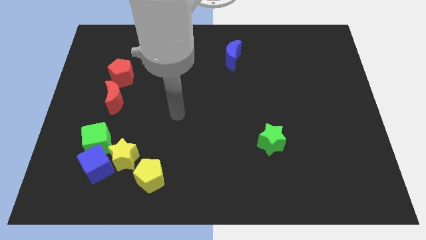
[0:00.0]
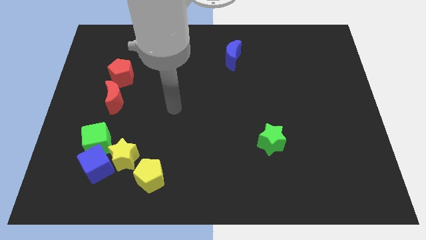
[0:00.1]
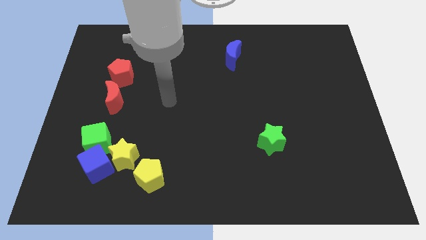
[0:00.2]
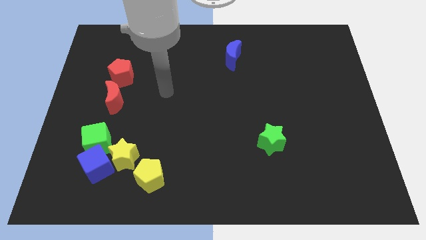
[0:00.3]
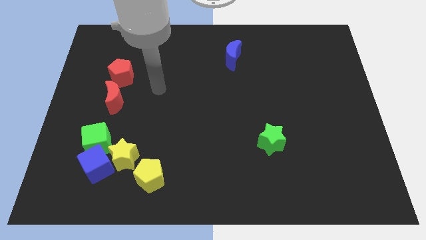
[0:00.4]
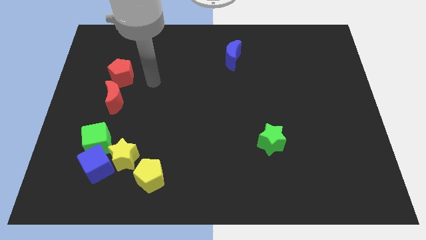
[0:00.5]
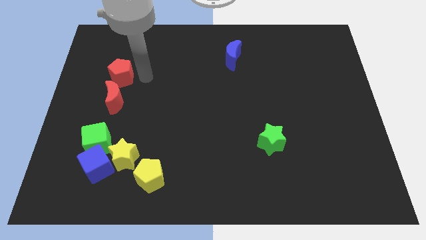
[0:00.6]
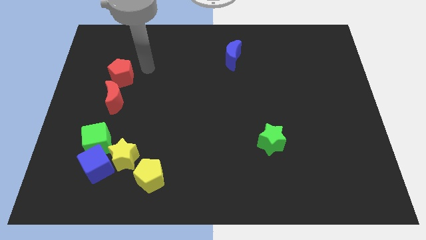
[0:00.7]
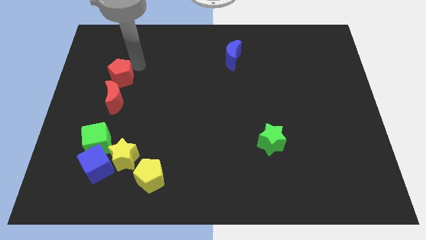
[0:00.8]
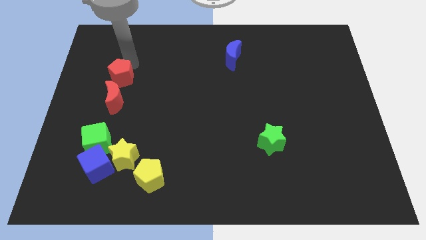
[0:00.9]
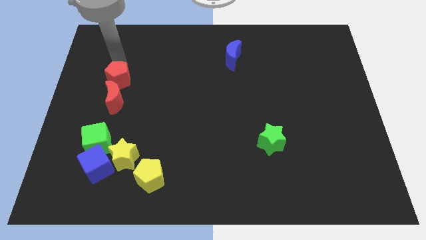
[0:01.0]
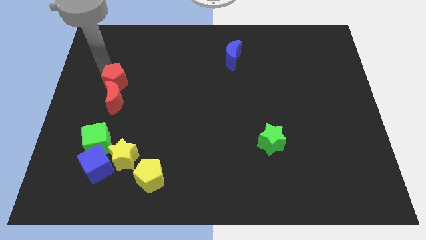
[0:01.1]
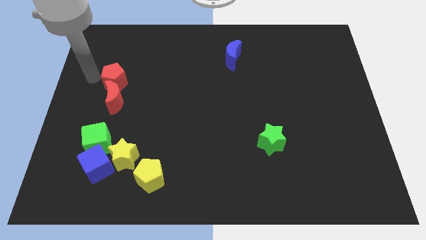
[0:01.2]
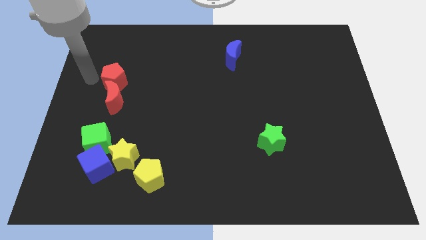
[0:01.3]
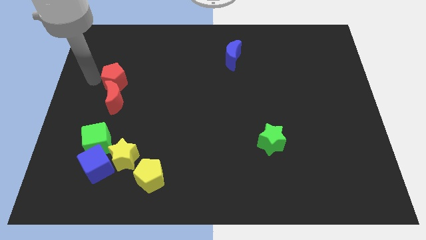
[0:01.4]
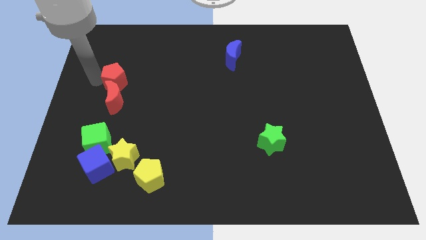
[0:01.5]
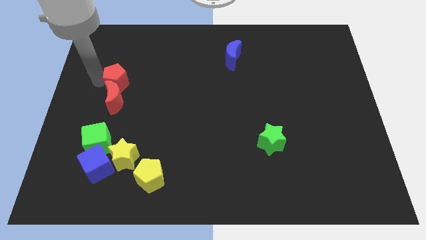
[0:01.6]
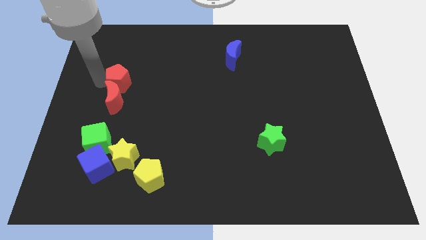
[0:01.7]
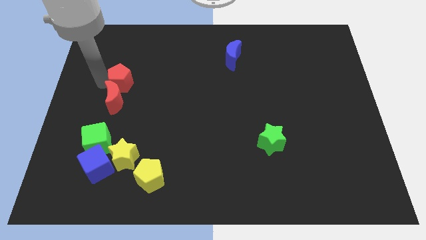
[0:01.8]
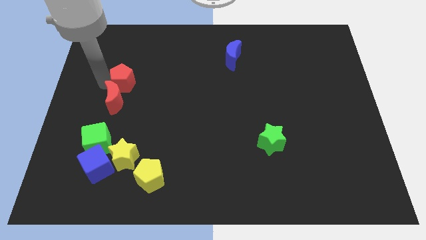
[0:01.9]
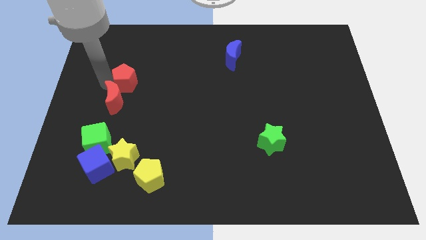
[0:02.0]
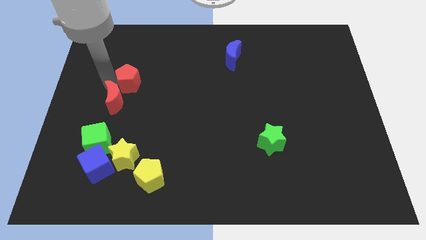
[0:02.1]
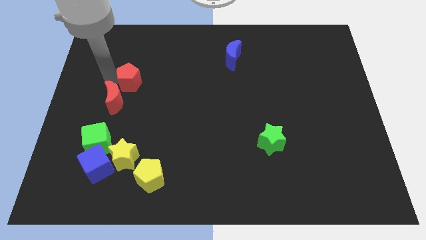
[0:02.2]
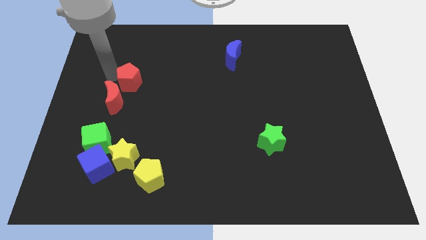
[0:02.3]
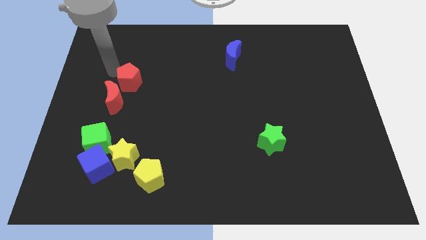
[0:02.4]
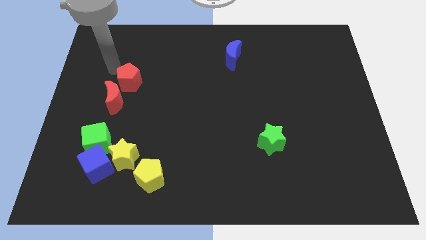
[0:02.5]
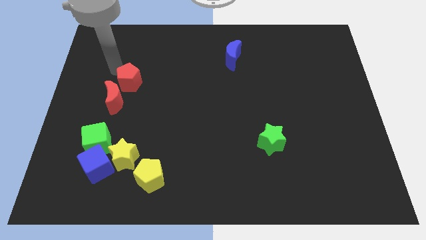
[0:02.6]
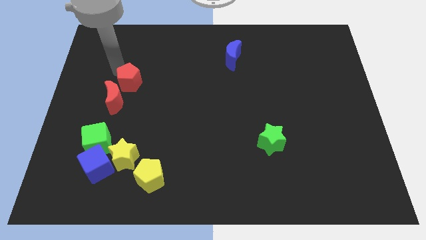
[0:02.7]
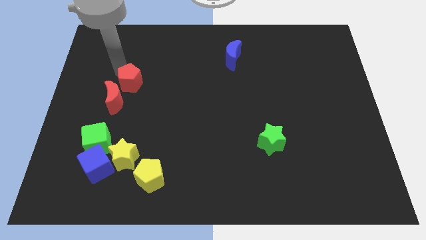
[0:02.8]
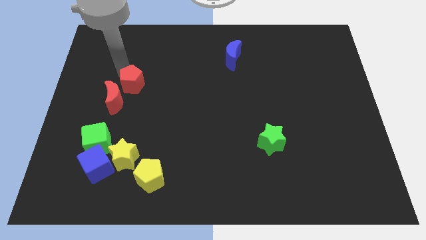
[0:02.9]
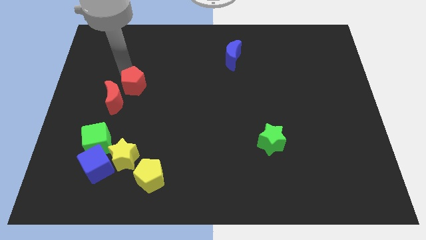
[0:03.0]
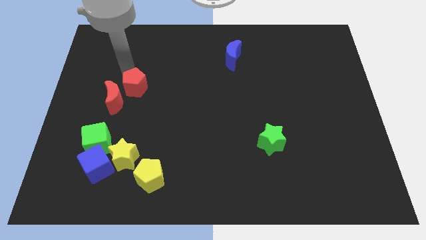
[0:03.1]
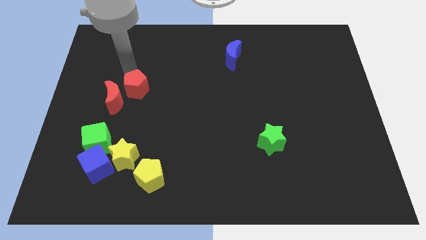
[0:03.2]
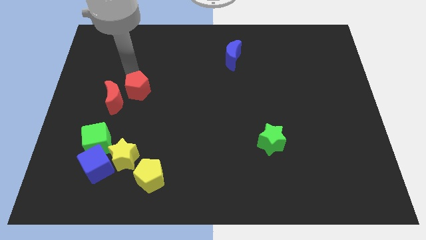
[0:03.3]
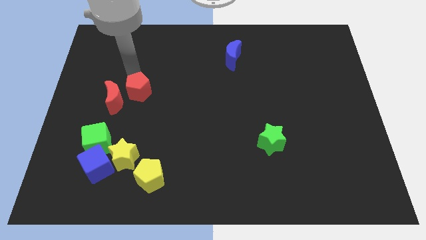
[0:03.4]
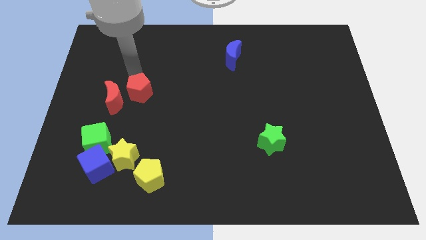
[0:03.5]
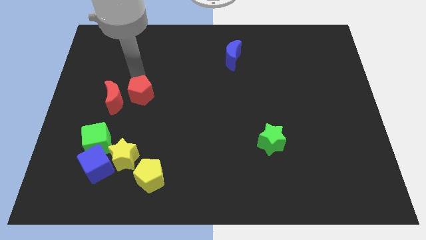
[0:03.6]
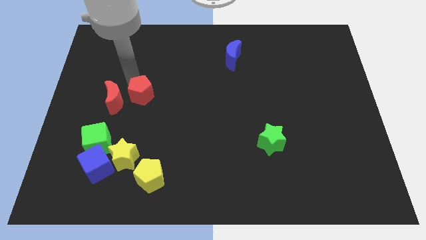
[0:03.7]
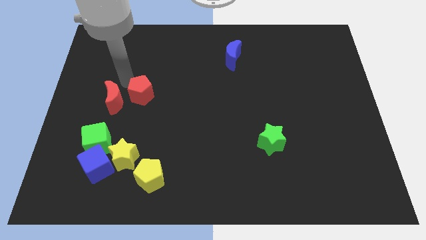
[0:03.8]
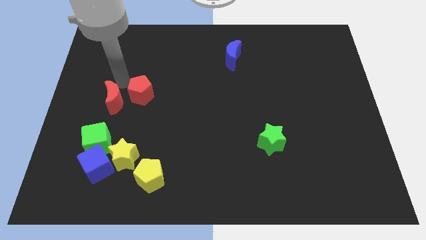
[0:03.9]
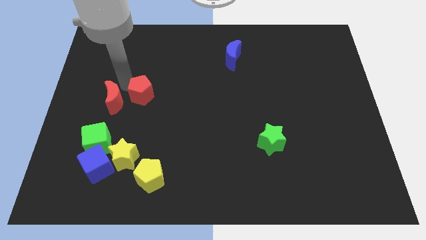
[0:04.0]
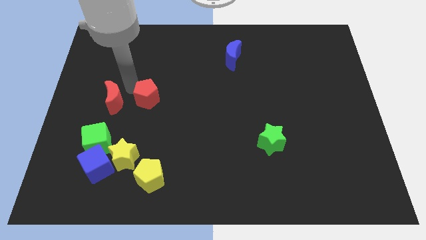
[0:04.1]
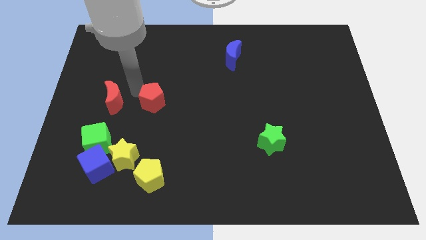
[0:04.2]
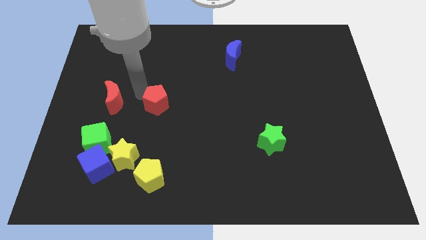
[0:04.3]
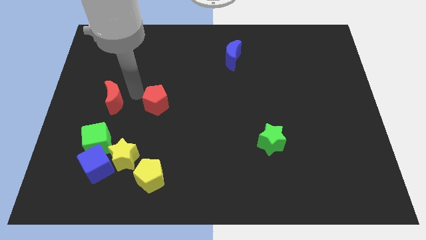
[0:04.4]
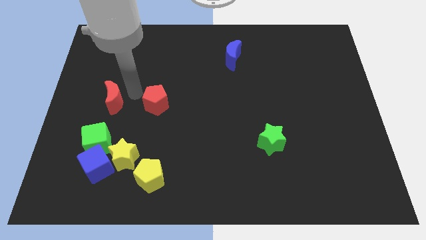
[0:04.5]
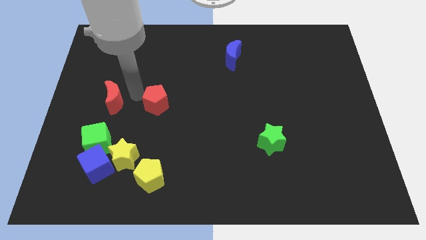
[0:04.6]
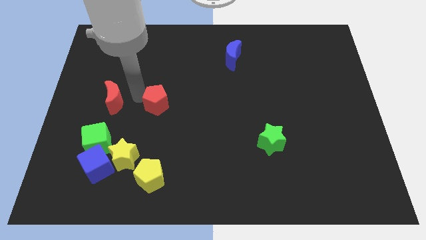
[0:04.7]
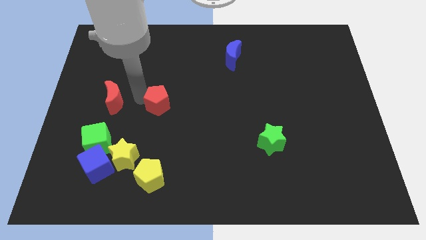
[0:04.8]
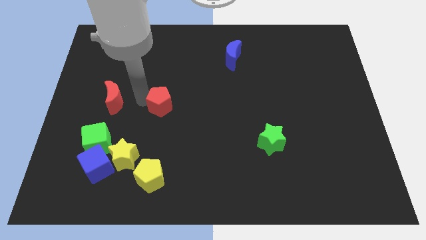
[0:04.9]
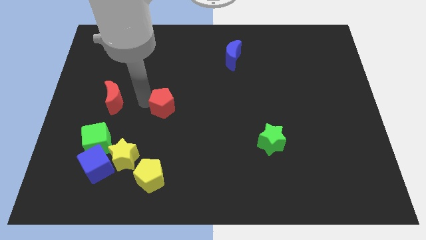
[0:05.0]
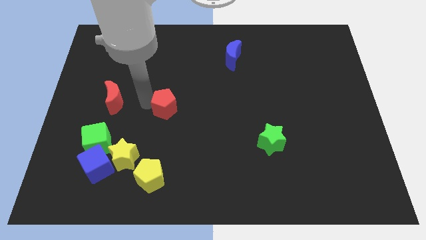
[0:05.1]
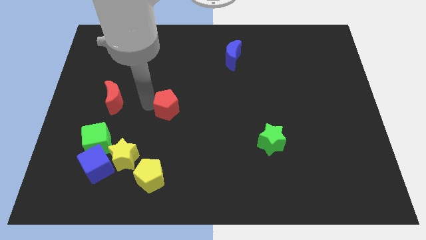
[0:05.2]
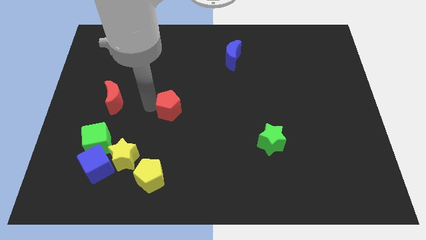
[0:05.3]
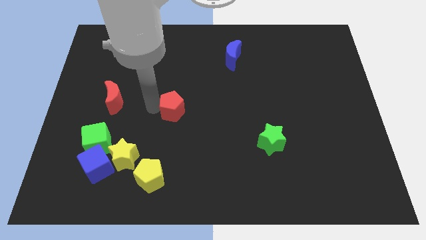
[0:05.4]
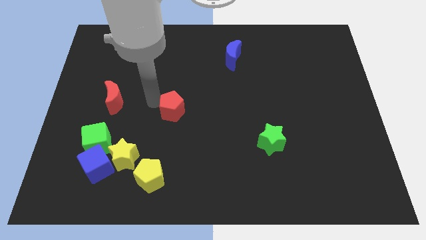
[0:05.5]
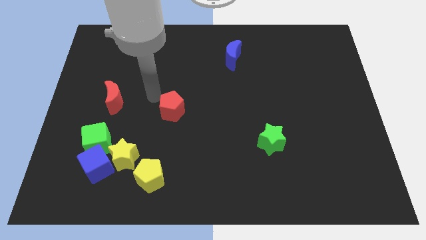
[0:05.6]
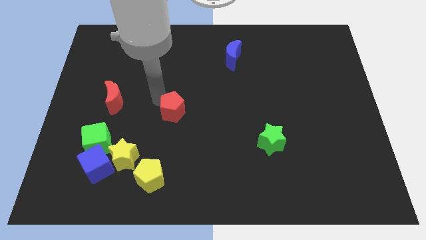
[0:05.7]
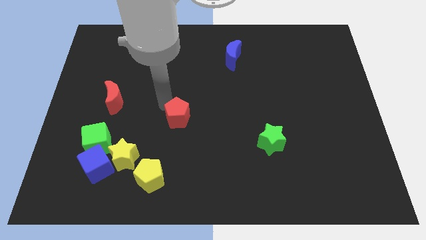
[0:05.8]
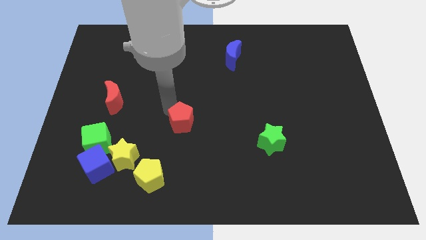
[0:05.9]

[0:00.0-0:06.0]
slide the red pentagon downwards and to the right

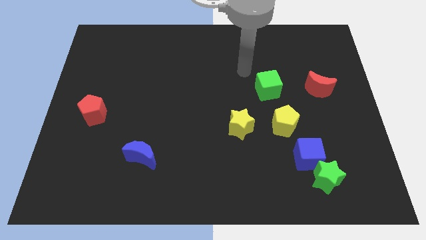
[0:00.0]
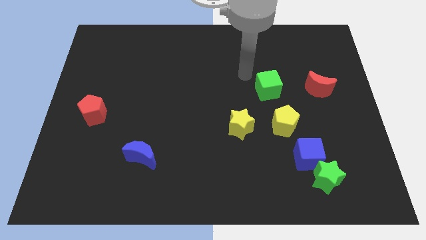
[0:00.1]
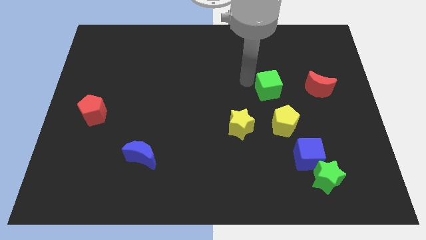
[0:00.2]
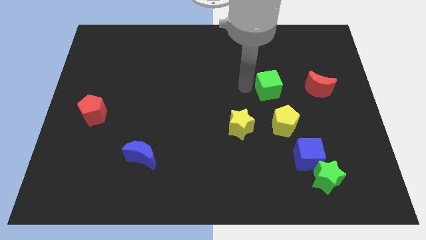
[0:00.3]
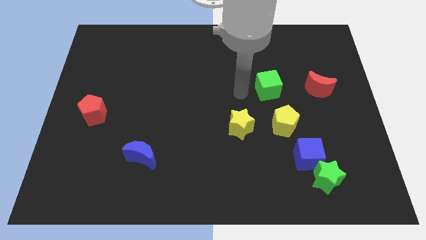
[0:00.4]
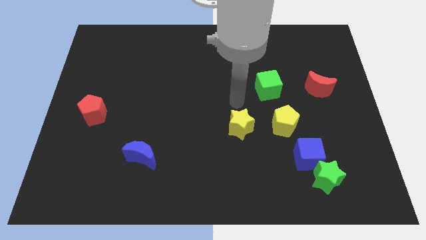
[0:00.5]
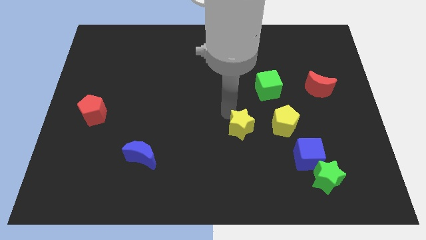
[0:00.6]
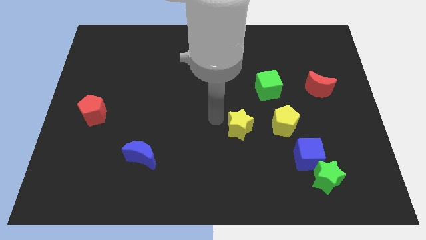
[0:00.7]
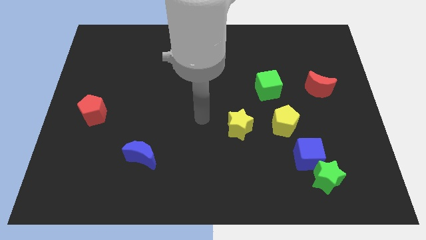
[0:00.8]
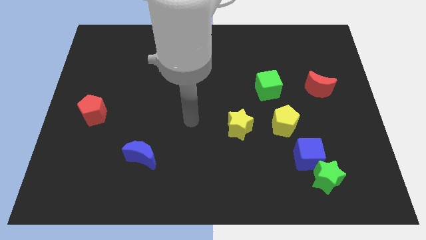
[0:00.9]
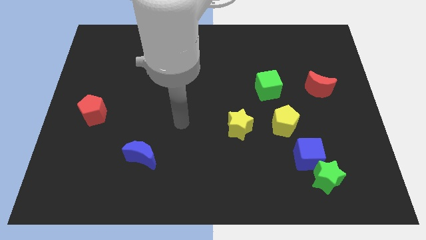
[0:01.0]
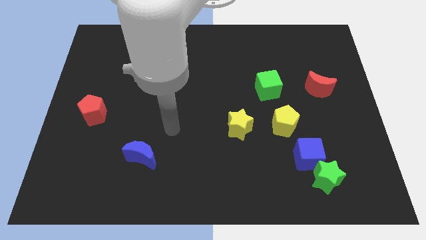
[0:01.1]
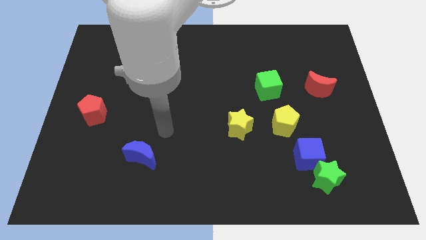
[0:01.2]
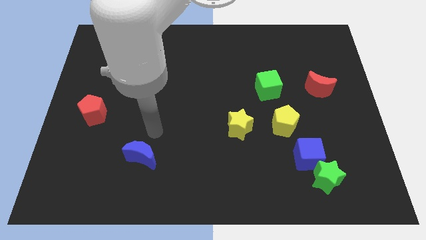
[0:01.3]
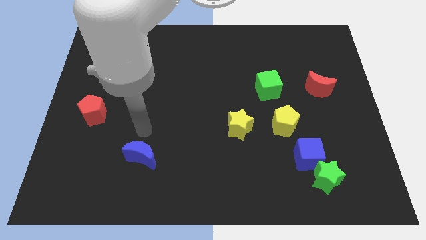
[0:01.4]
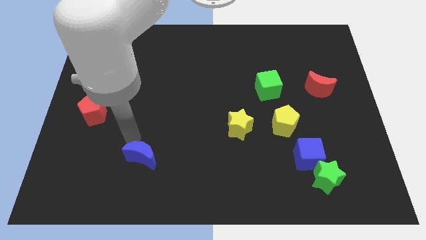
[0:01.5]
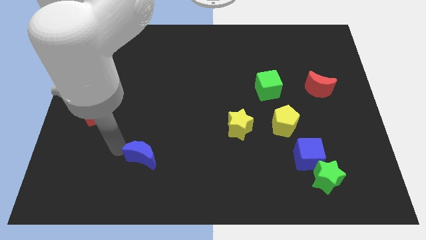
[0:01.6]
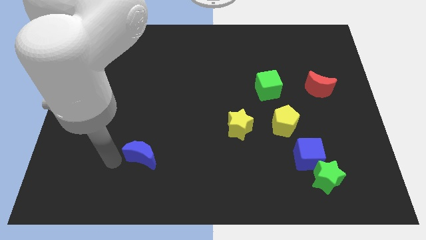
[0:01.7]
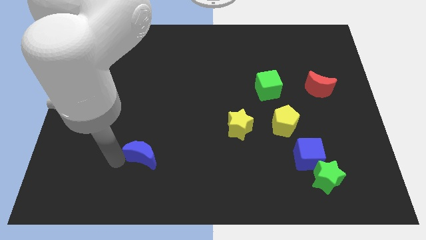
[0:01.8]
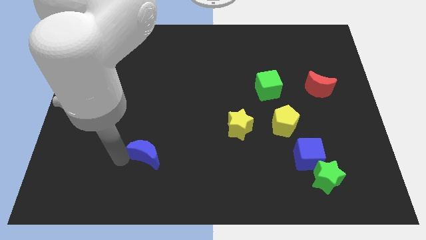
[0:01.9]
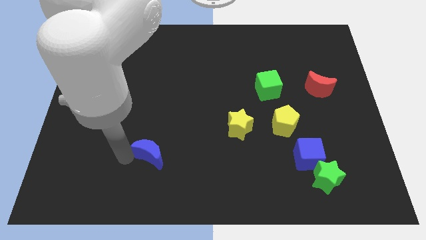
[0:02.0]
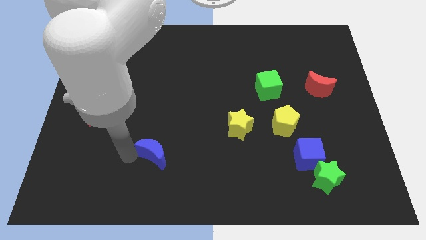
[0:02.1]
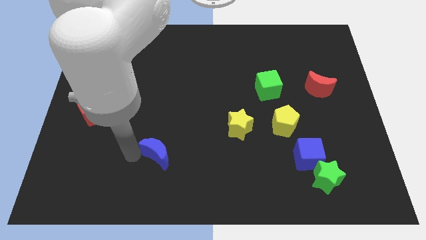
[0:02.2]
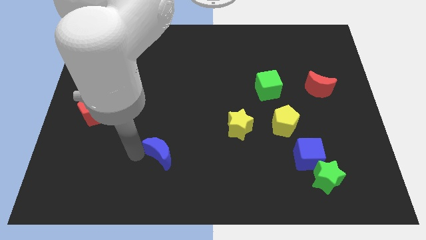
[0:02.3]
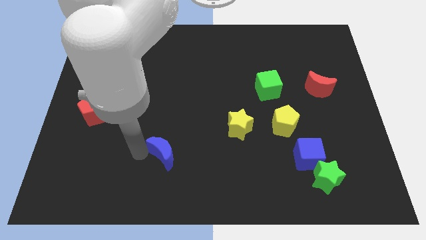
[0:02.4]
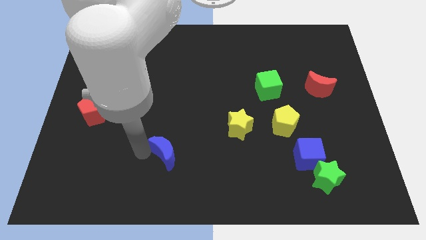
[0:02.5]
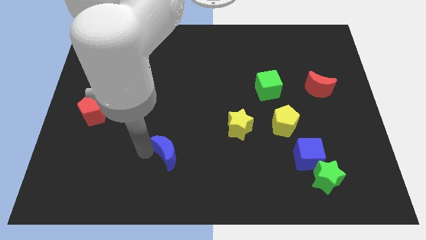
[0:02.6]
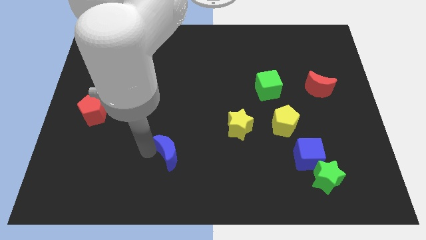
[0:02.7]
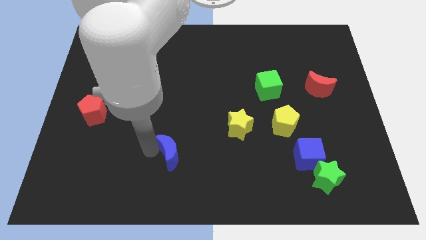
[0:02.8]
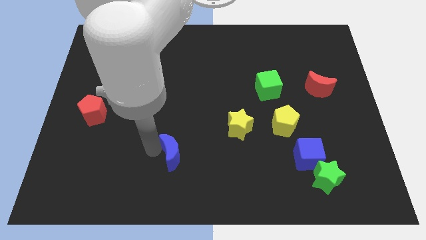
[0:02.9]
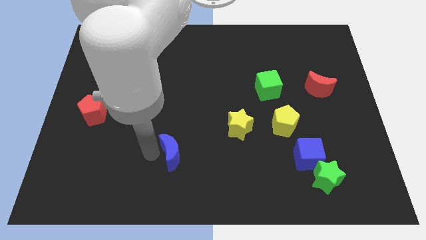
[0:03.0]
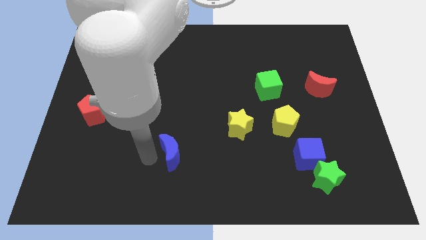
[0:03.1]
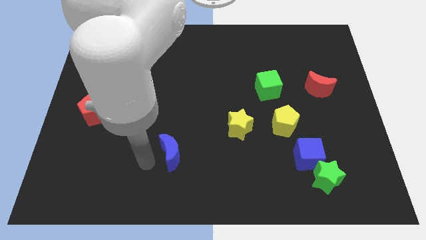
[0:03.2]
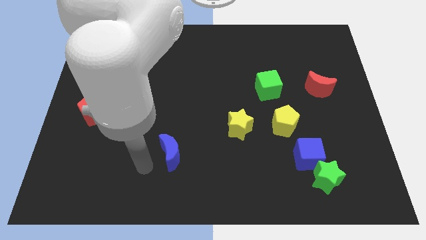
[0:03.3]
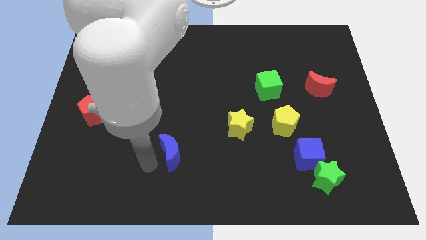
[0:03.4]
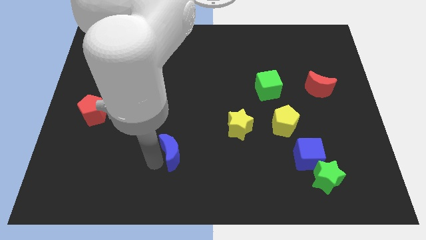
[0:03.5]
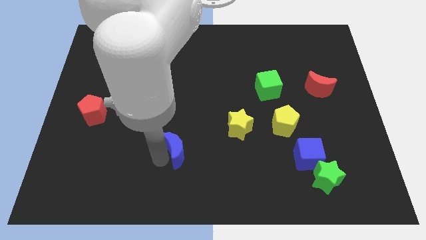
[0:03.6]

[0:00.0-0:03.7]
push the blue moon slightly to the right
